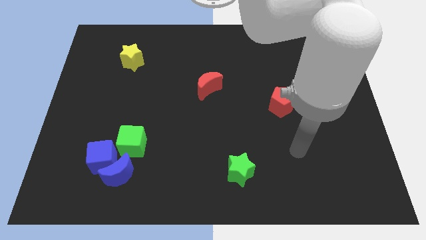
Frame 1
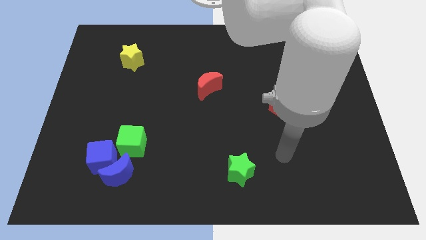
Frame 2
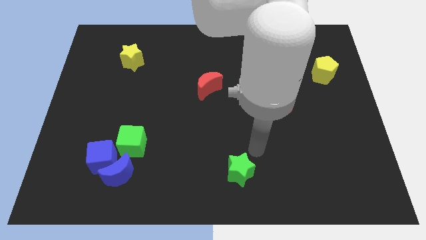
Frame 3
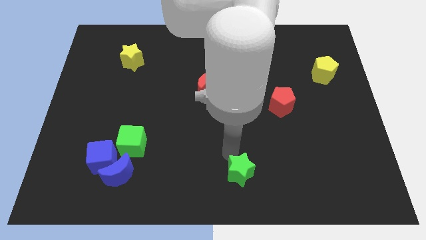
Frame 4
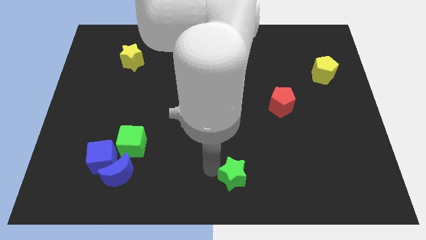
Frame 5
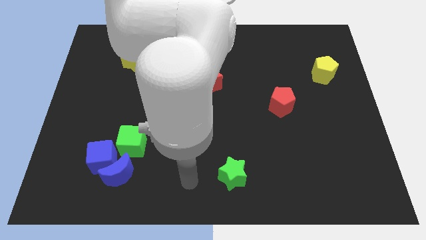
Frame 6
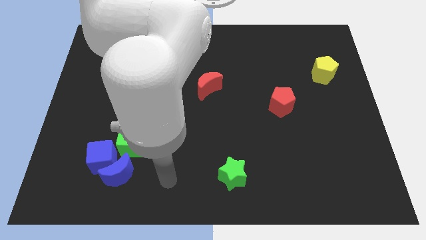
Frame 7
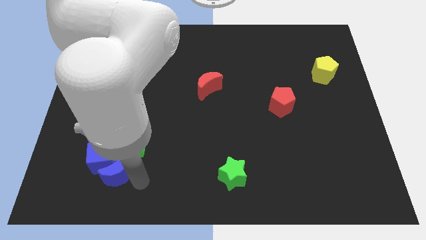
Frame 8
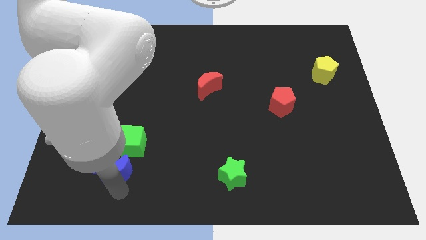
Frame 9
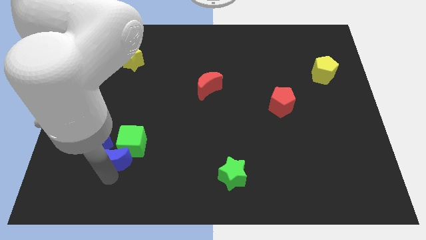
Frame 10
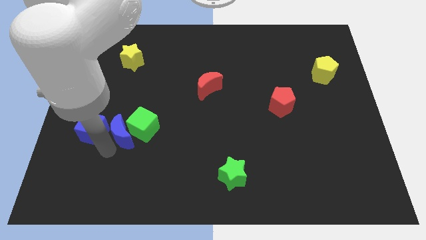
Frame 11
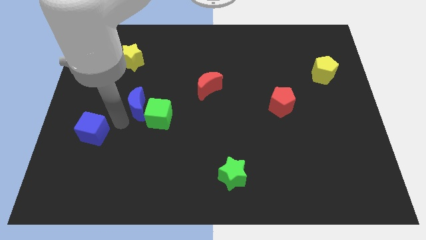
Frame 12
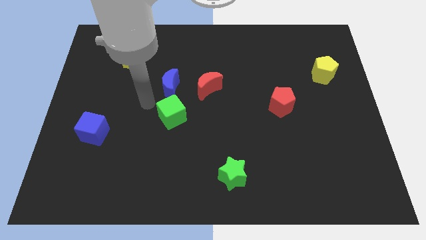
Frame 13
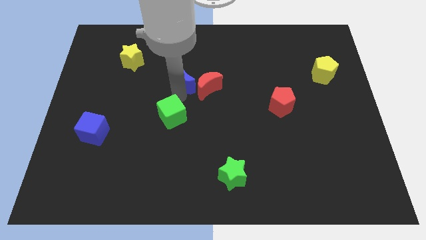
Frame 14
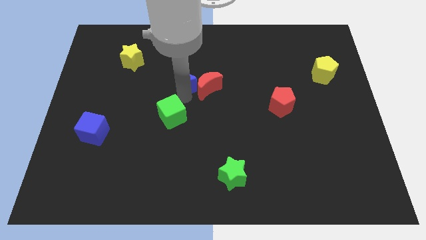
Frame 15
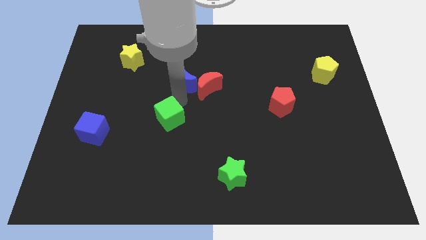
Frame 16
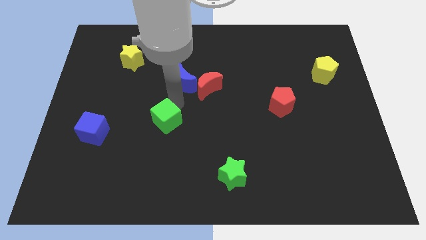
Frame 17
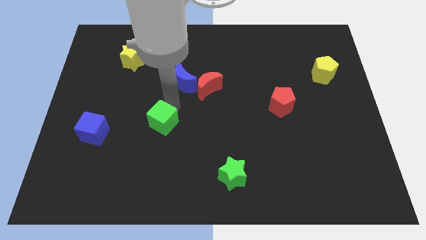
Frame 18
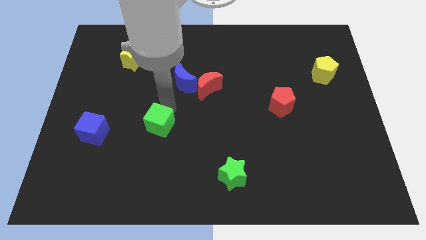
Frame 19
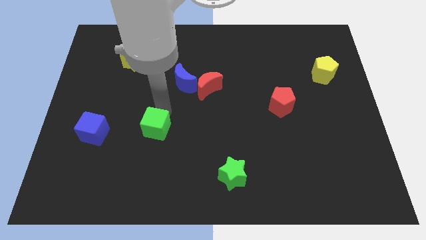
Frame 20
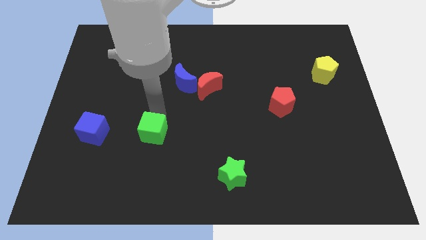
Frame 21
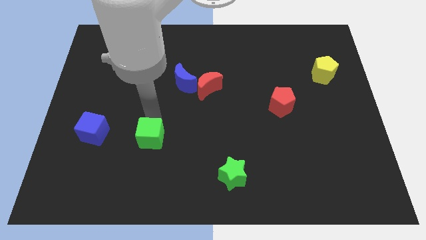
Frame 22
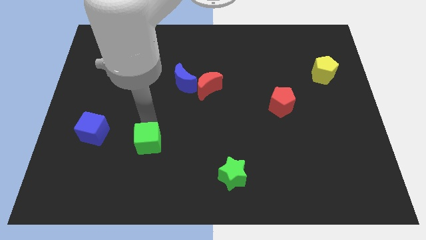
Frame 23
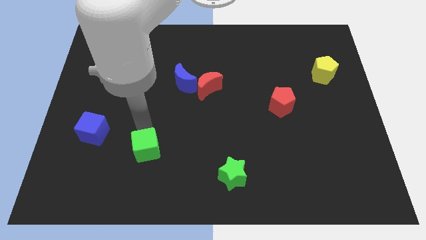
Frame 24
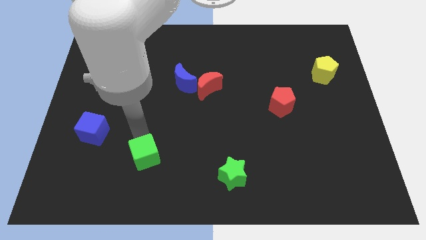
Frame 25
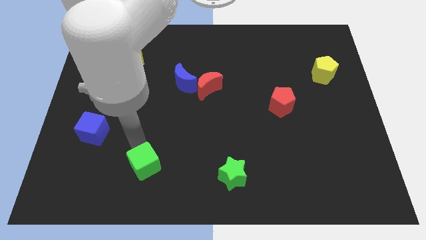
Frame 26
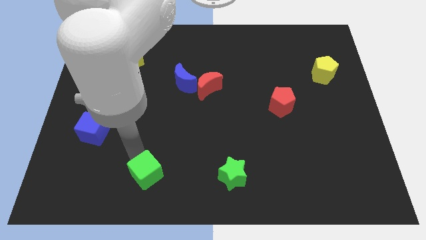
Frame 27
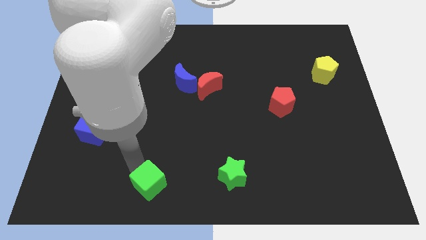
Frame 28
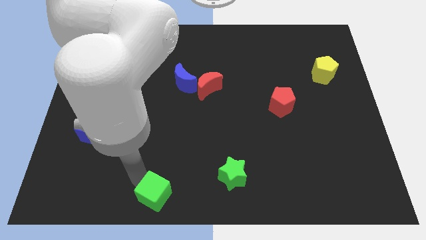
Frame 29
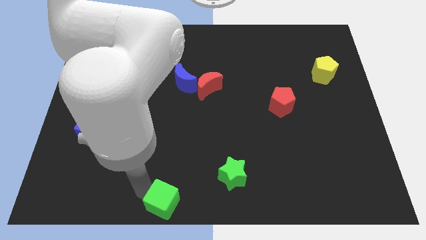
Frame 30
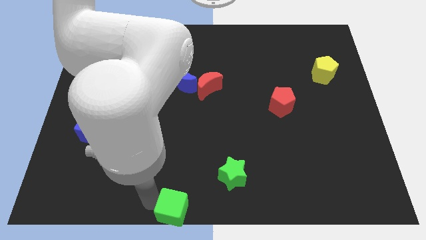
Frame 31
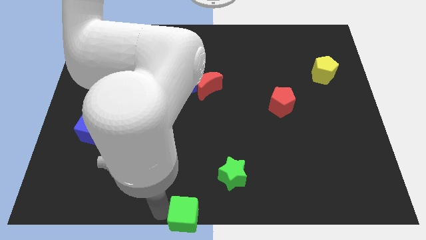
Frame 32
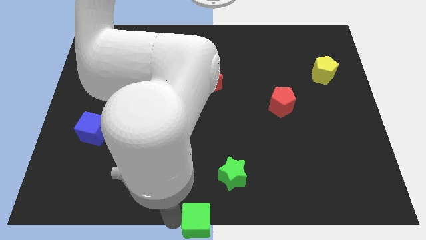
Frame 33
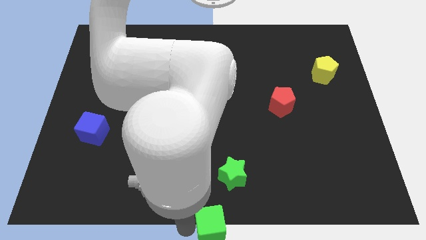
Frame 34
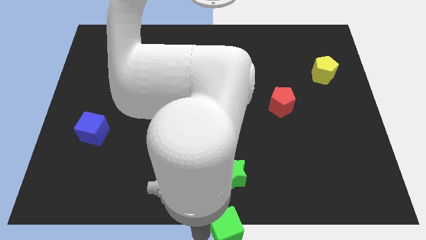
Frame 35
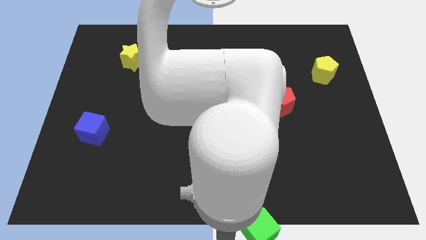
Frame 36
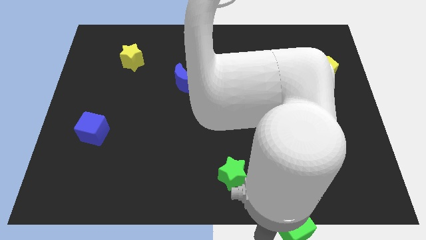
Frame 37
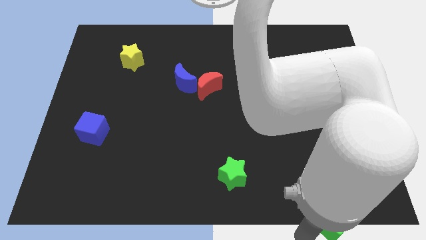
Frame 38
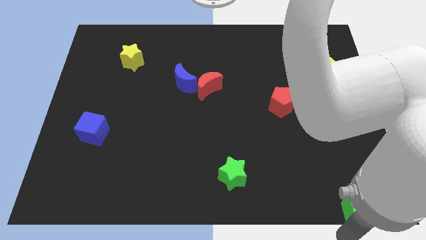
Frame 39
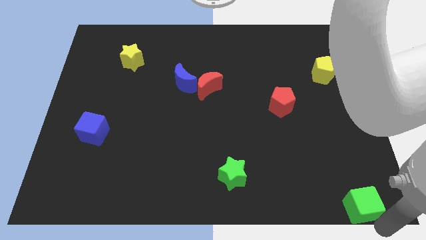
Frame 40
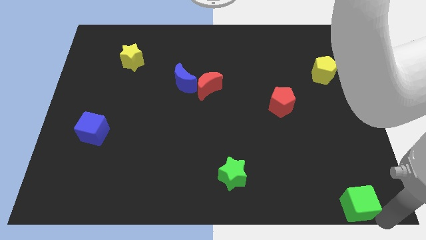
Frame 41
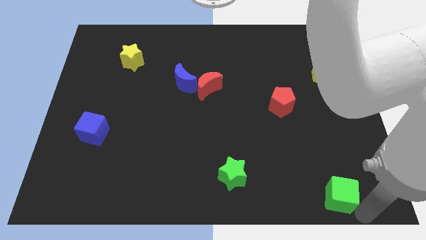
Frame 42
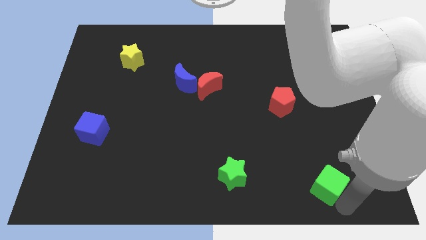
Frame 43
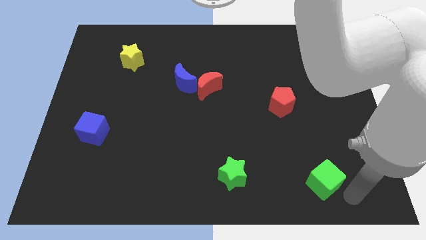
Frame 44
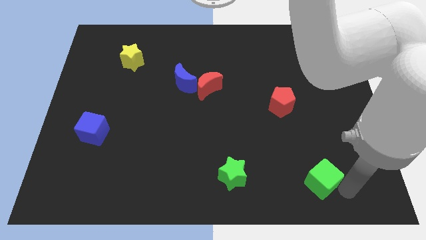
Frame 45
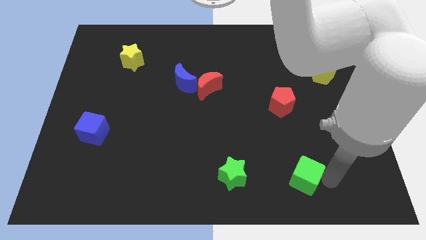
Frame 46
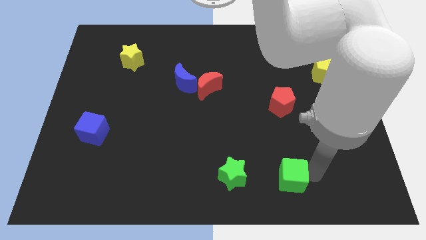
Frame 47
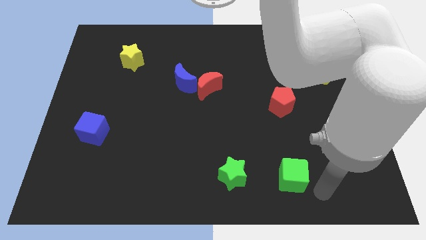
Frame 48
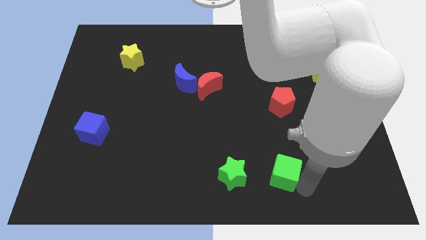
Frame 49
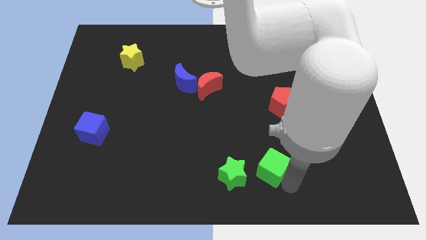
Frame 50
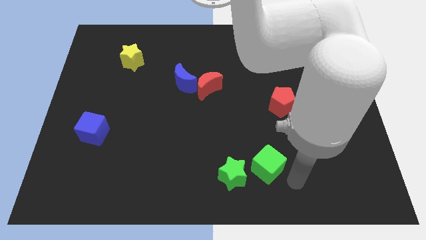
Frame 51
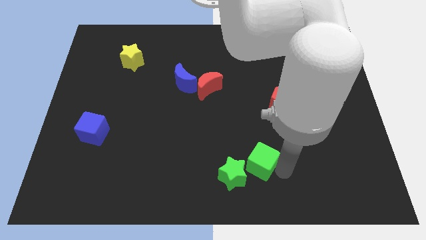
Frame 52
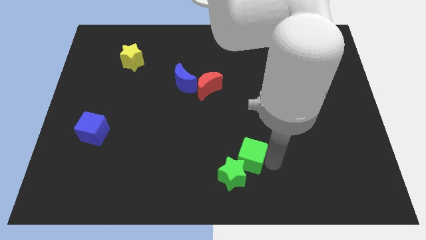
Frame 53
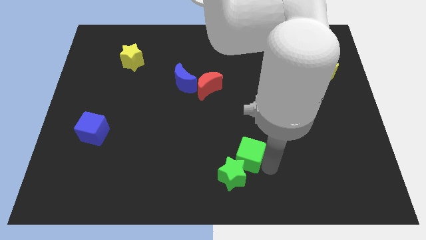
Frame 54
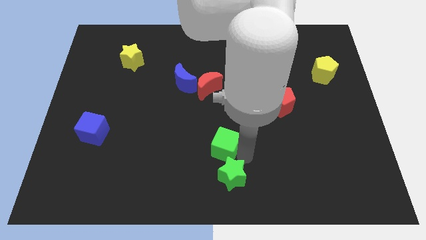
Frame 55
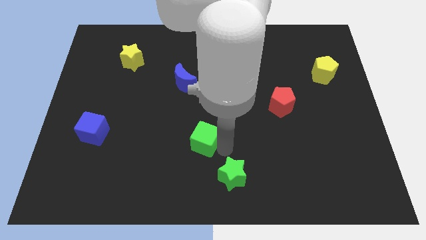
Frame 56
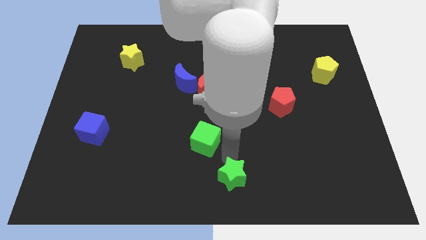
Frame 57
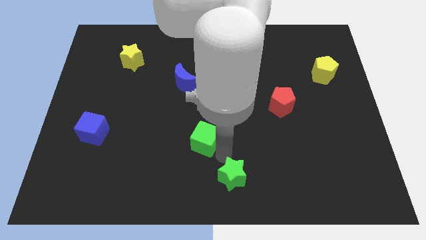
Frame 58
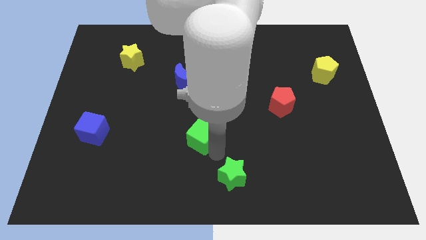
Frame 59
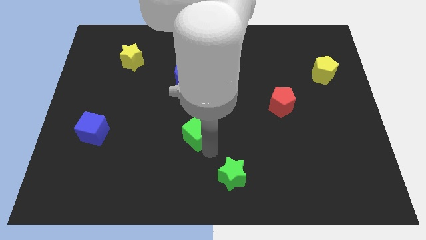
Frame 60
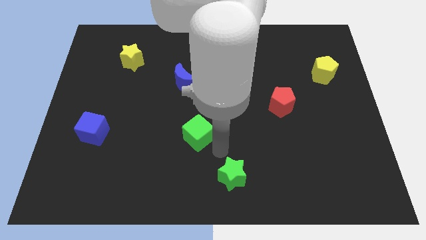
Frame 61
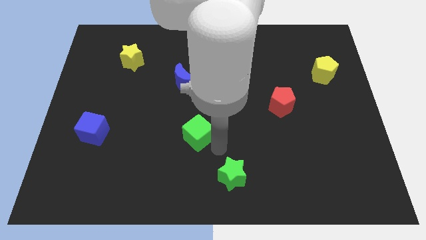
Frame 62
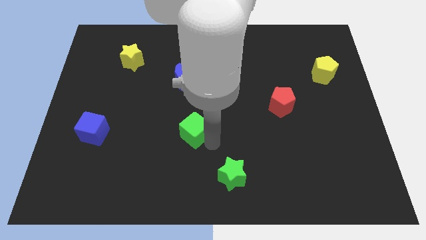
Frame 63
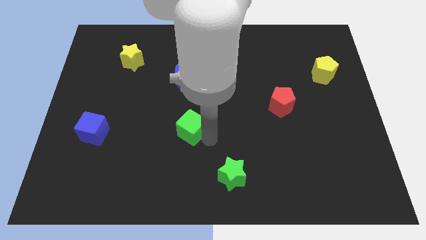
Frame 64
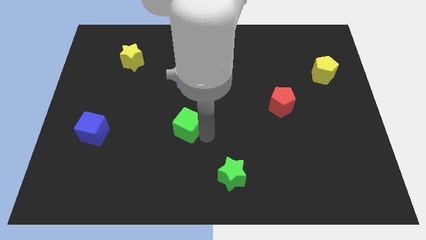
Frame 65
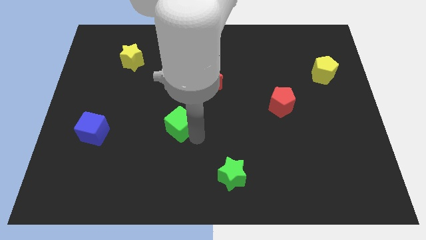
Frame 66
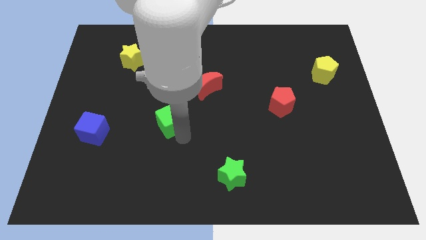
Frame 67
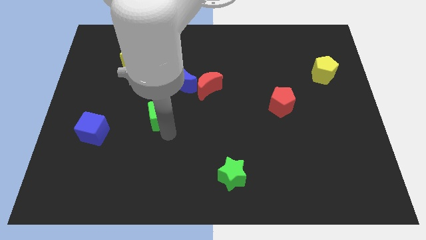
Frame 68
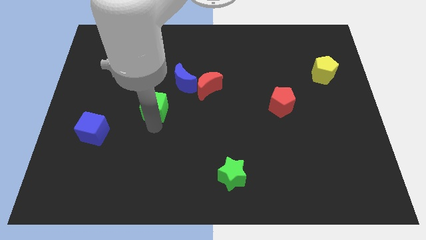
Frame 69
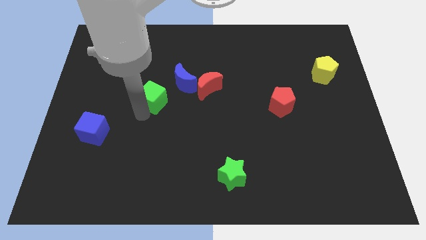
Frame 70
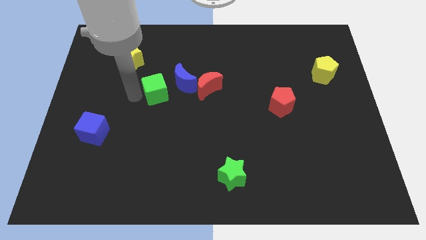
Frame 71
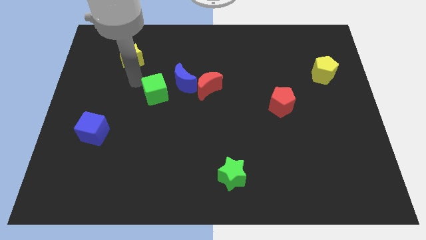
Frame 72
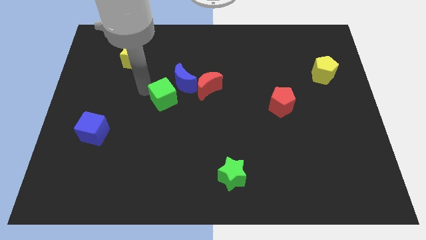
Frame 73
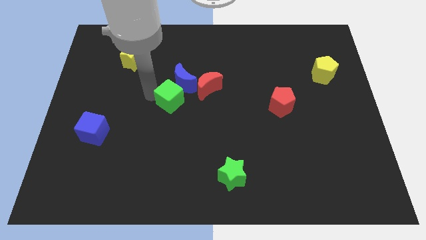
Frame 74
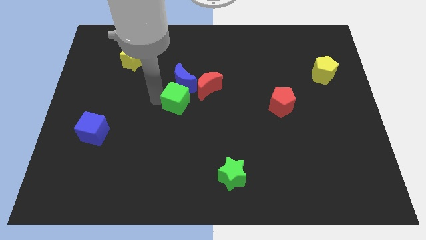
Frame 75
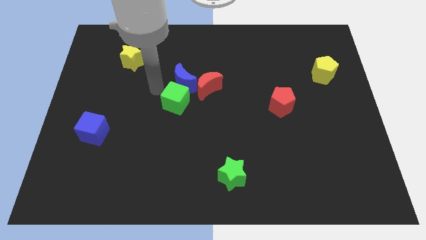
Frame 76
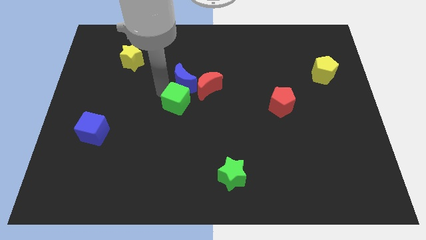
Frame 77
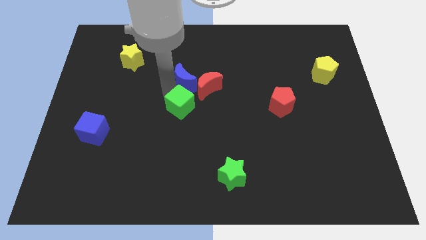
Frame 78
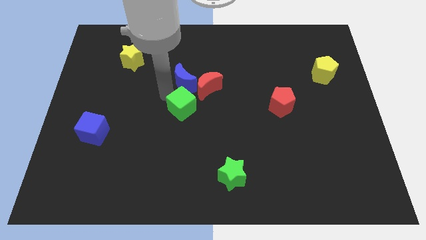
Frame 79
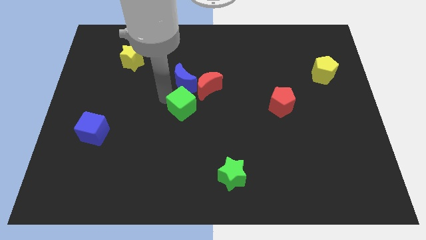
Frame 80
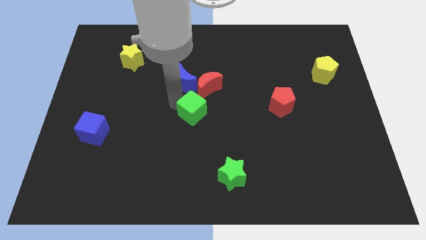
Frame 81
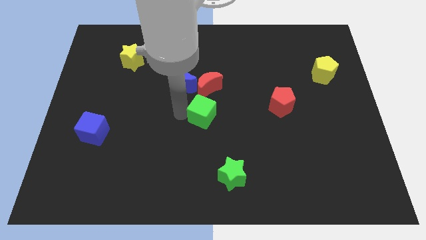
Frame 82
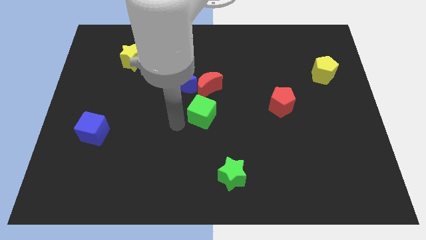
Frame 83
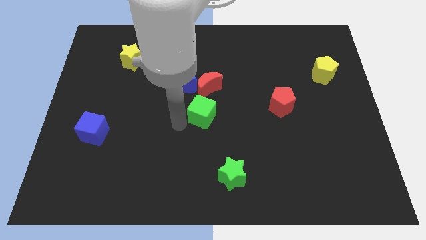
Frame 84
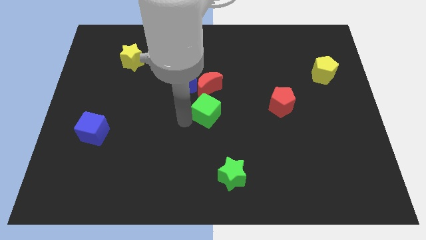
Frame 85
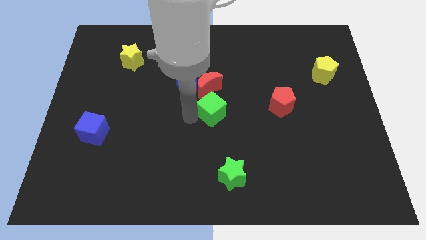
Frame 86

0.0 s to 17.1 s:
move the green cube diagonally down and to the right of the red moon
